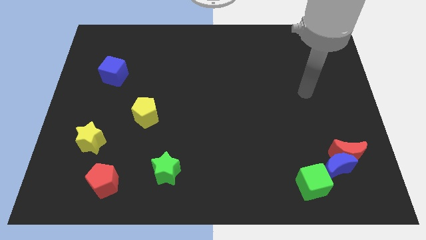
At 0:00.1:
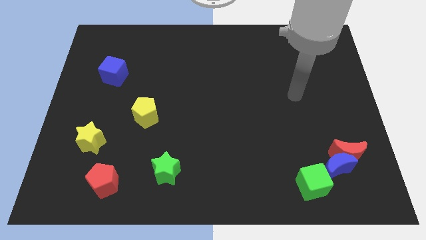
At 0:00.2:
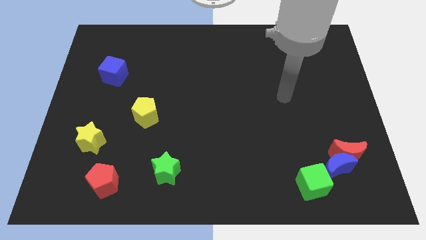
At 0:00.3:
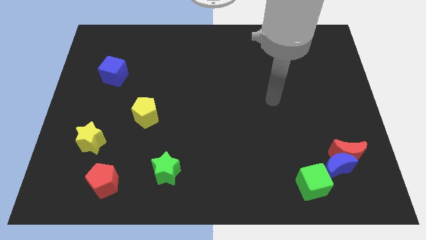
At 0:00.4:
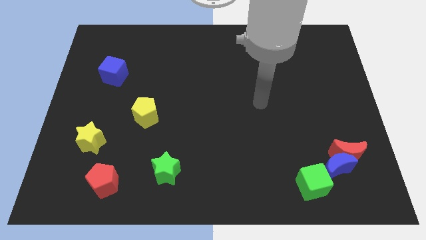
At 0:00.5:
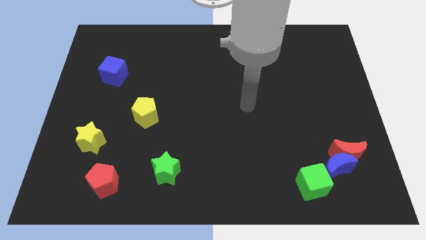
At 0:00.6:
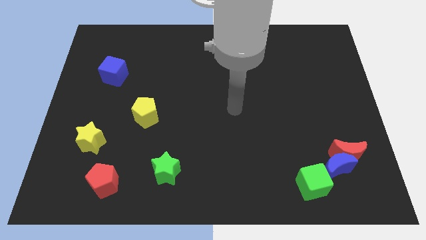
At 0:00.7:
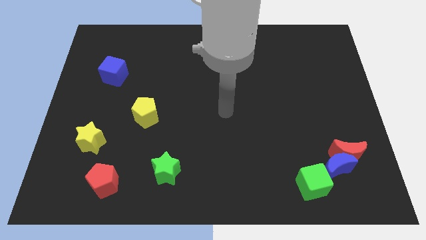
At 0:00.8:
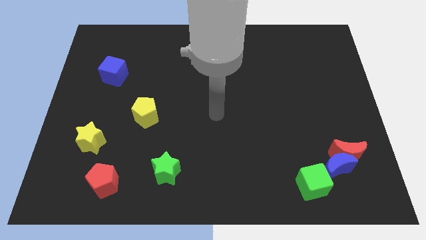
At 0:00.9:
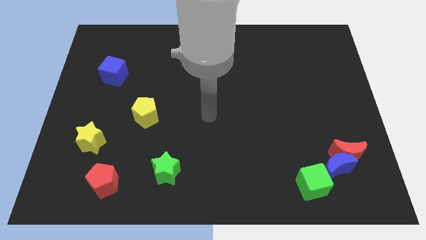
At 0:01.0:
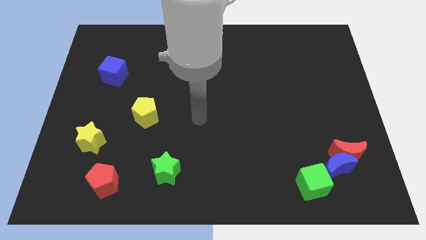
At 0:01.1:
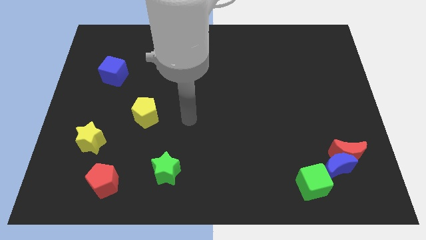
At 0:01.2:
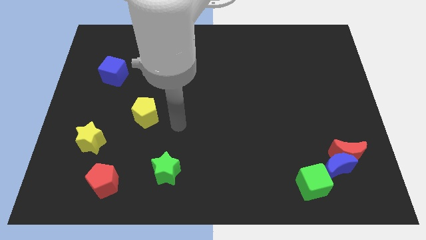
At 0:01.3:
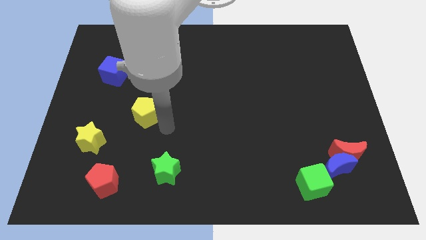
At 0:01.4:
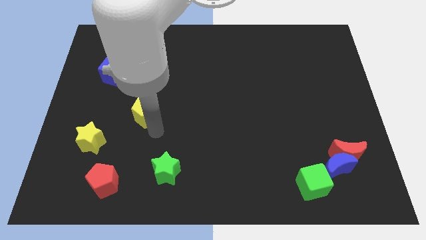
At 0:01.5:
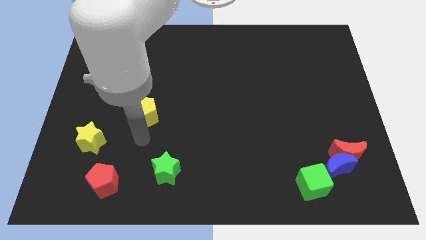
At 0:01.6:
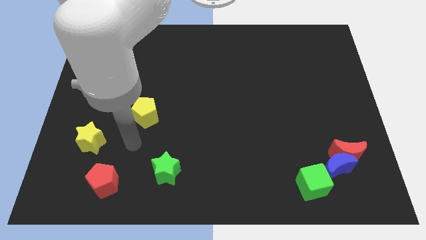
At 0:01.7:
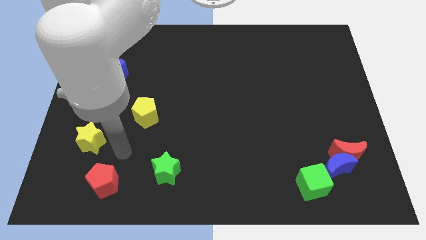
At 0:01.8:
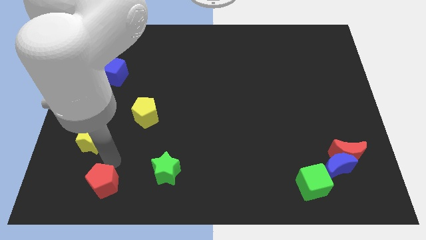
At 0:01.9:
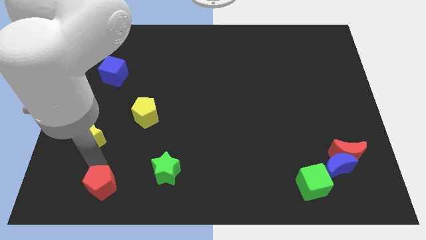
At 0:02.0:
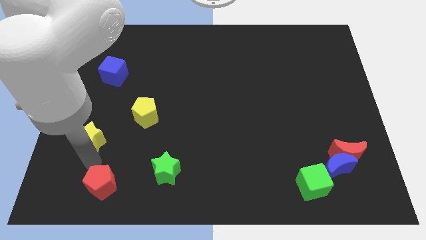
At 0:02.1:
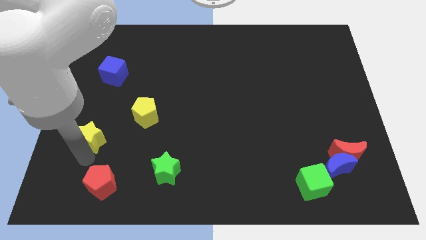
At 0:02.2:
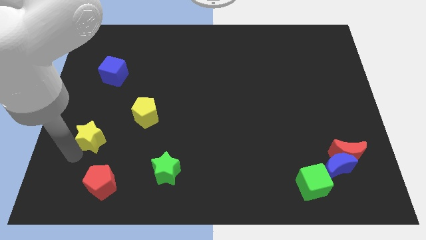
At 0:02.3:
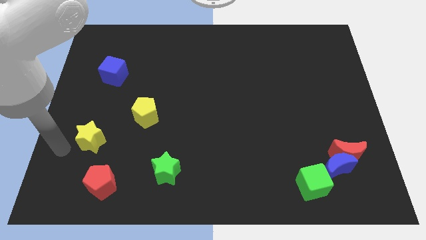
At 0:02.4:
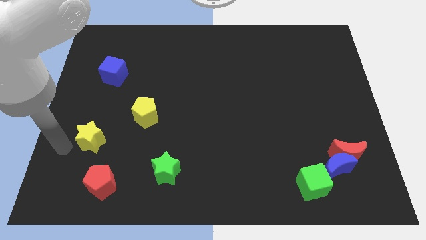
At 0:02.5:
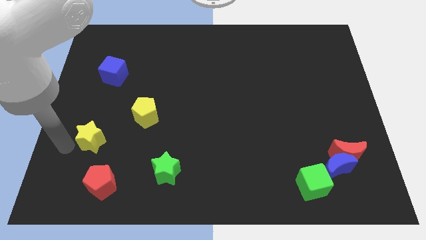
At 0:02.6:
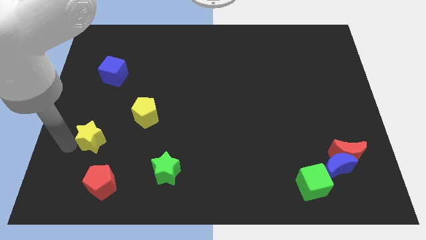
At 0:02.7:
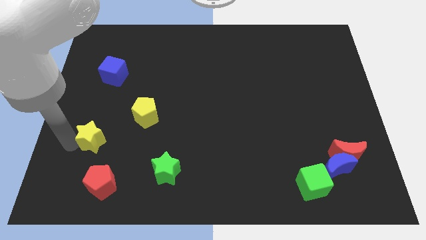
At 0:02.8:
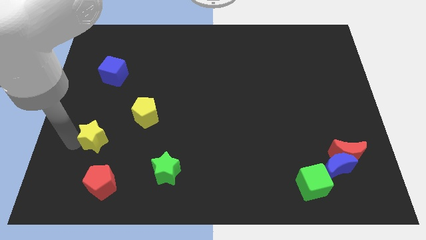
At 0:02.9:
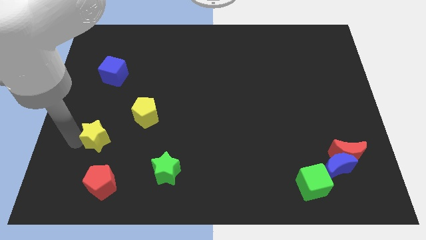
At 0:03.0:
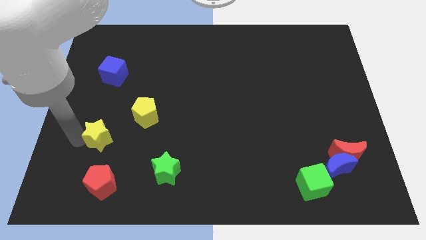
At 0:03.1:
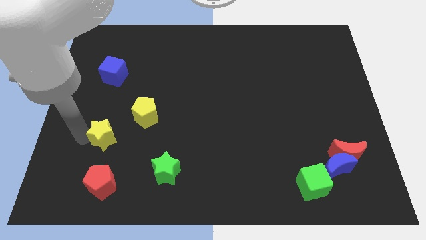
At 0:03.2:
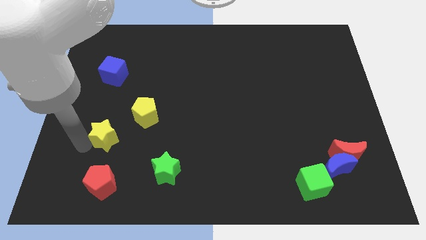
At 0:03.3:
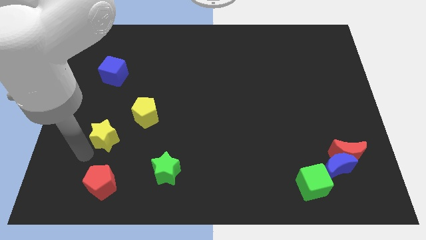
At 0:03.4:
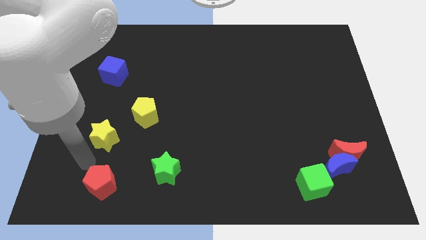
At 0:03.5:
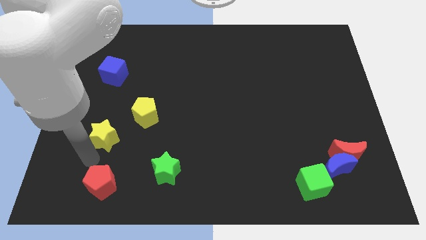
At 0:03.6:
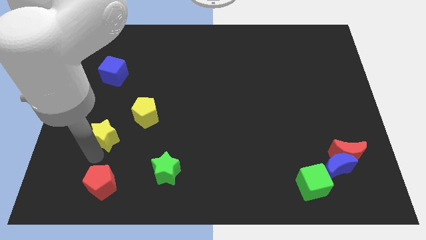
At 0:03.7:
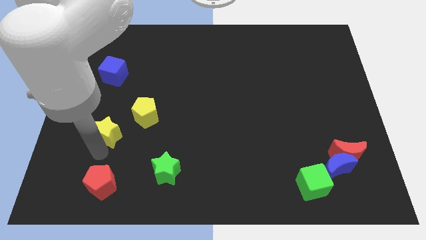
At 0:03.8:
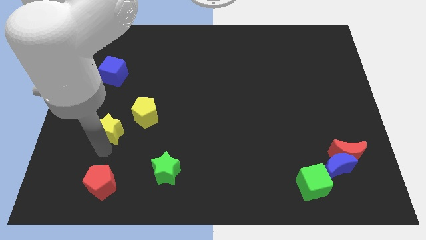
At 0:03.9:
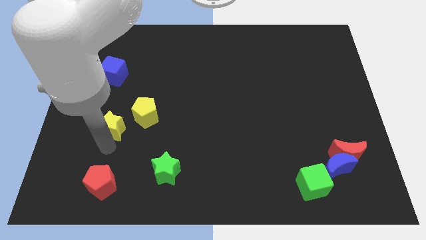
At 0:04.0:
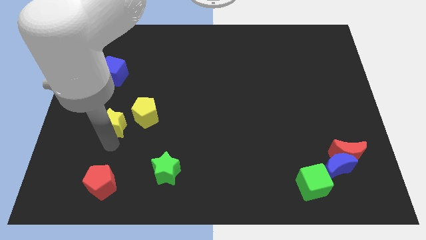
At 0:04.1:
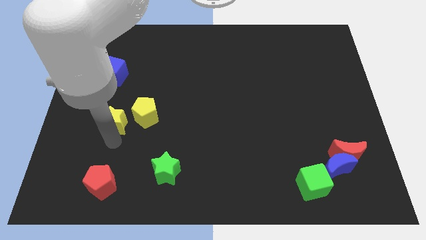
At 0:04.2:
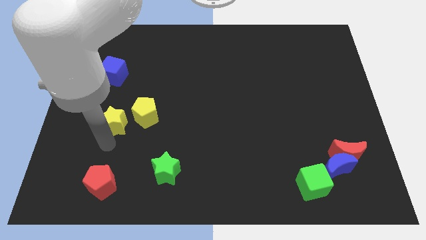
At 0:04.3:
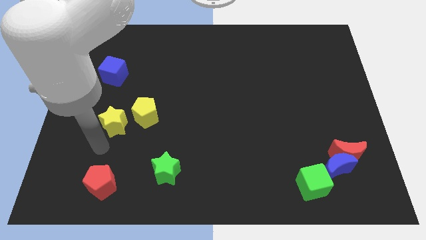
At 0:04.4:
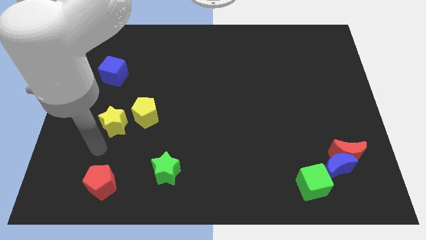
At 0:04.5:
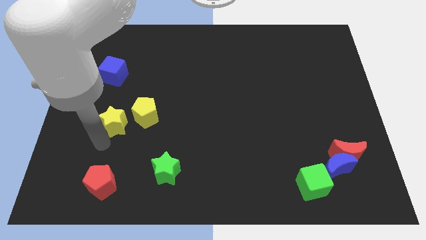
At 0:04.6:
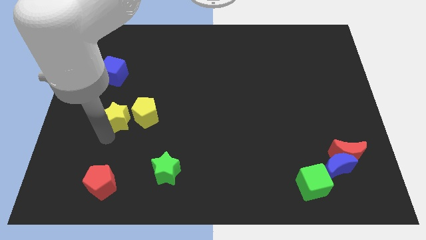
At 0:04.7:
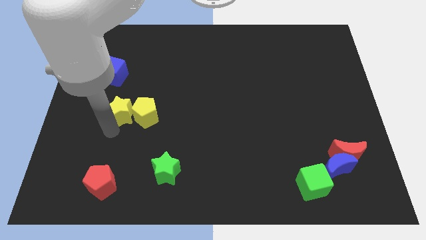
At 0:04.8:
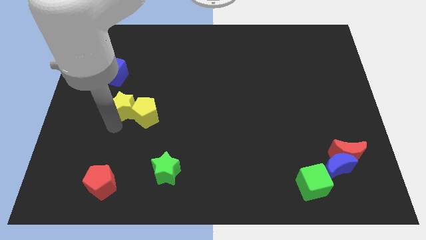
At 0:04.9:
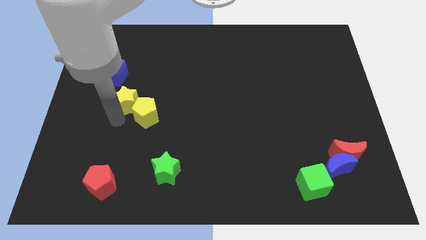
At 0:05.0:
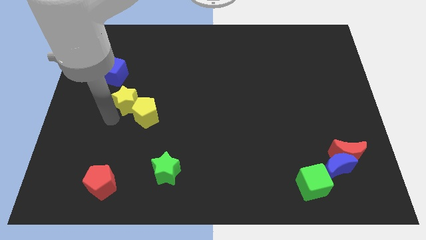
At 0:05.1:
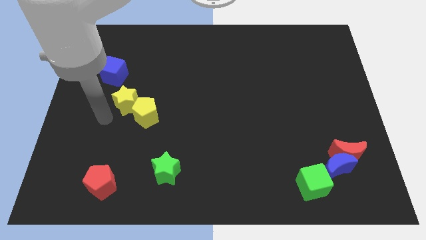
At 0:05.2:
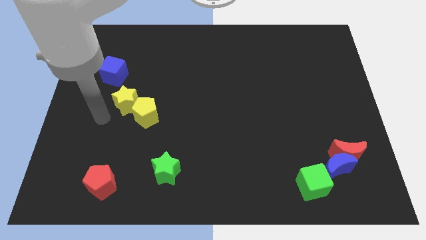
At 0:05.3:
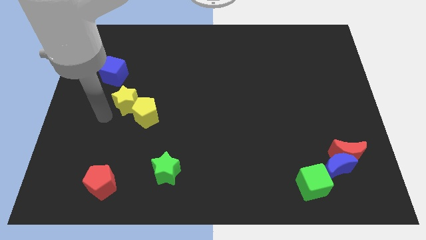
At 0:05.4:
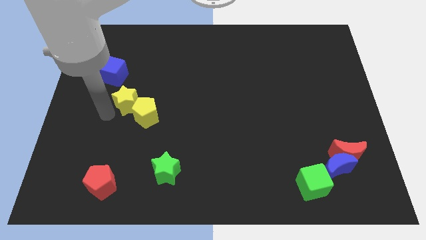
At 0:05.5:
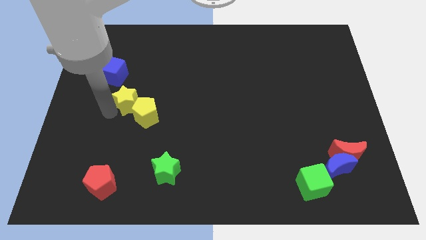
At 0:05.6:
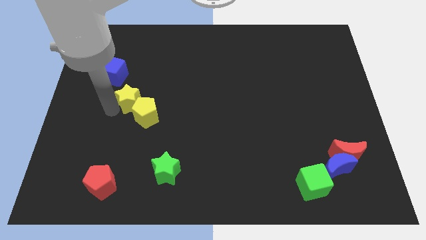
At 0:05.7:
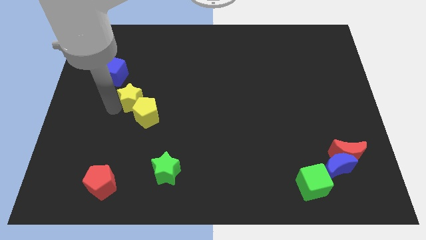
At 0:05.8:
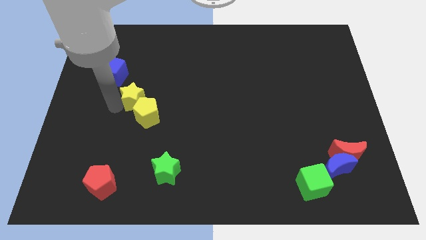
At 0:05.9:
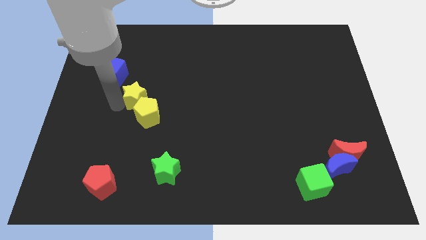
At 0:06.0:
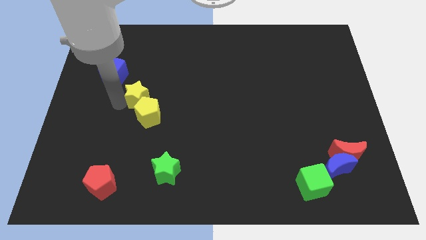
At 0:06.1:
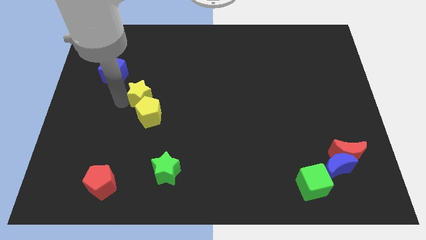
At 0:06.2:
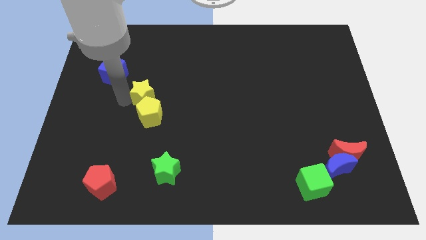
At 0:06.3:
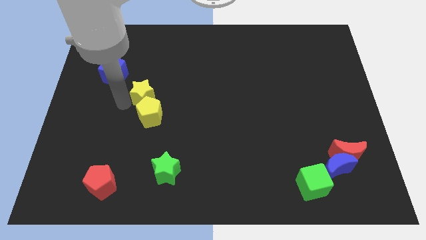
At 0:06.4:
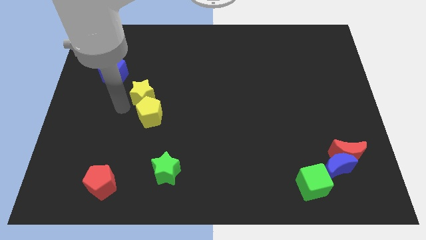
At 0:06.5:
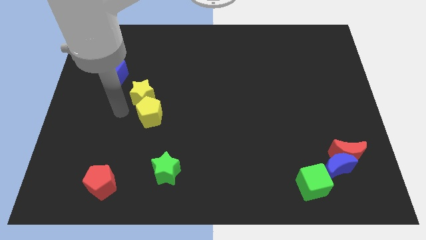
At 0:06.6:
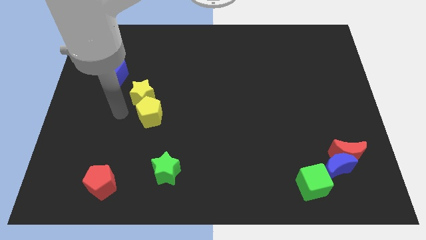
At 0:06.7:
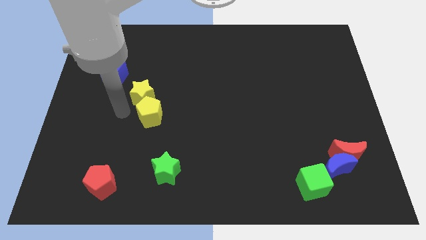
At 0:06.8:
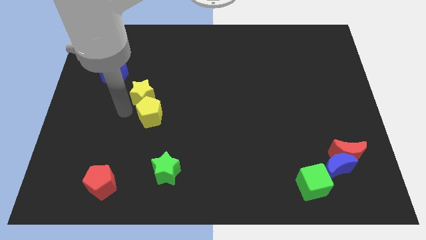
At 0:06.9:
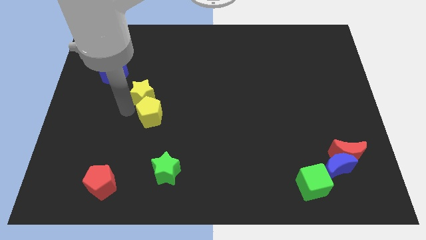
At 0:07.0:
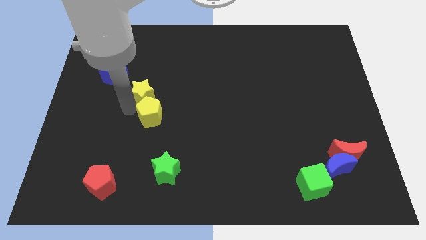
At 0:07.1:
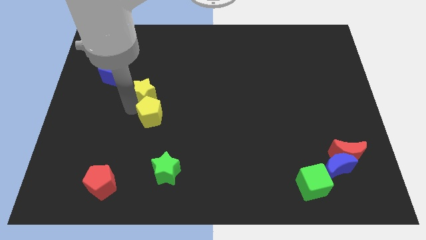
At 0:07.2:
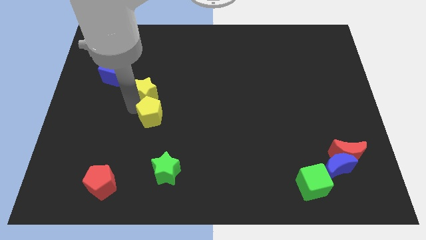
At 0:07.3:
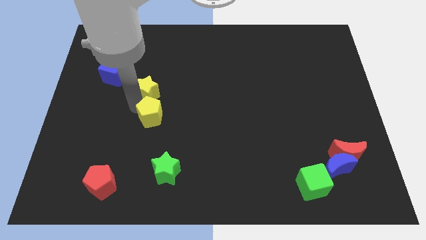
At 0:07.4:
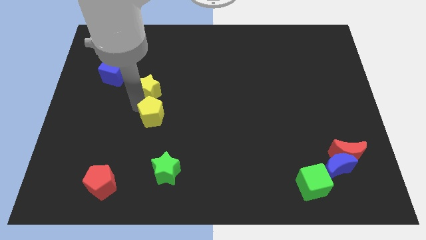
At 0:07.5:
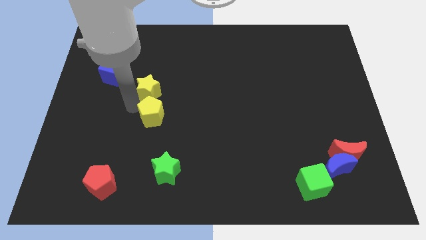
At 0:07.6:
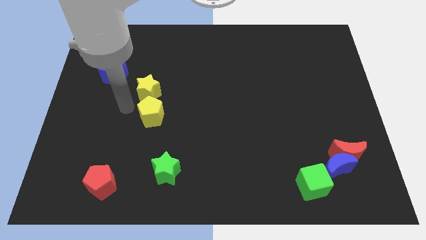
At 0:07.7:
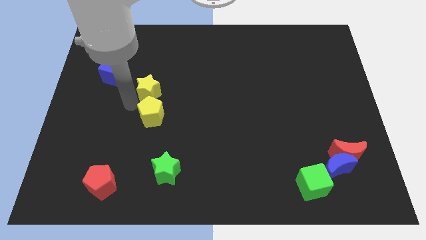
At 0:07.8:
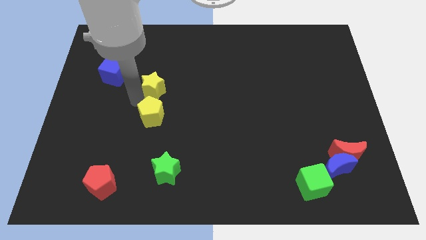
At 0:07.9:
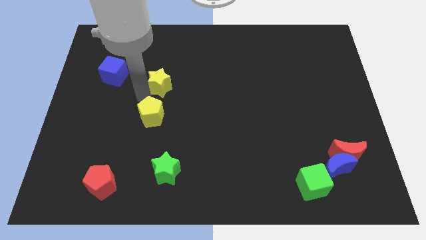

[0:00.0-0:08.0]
push the yellow star upwards and to the right diagonally
